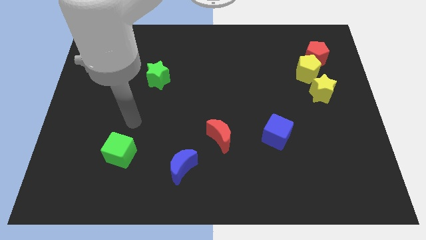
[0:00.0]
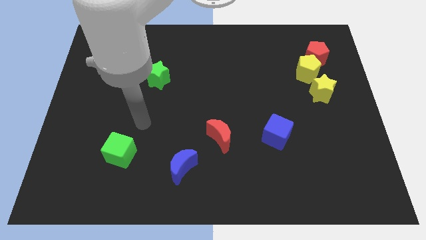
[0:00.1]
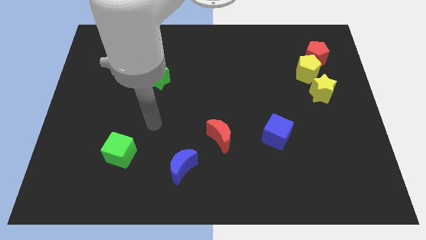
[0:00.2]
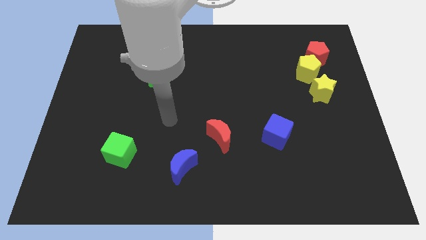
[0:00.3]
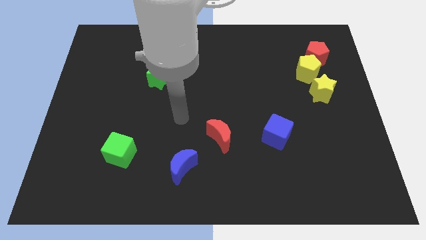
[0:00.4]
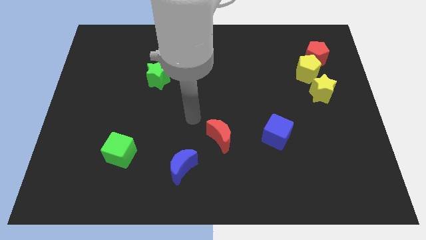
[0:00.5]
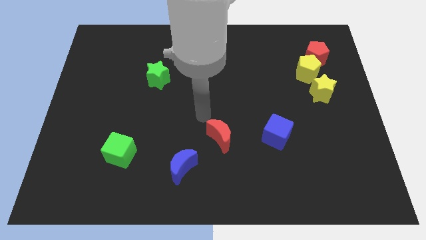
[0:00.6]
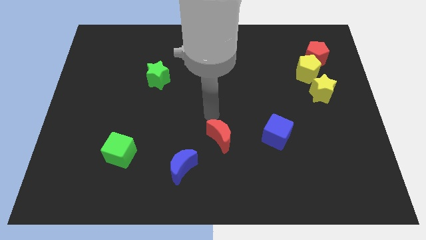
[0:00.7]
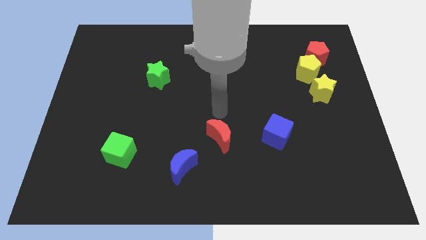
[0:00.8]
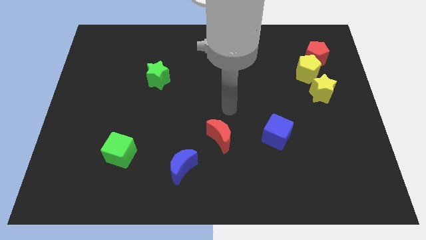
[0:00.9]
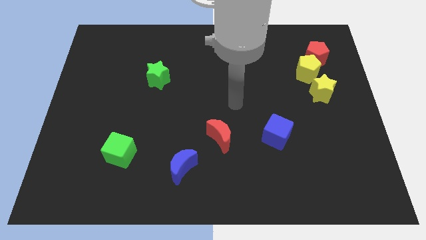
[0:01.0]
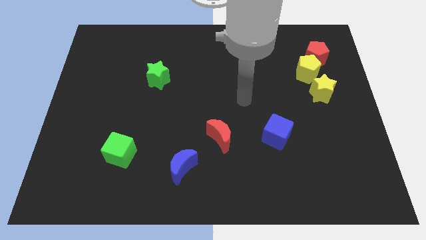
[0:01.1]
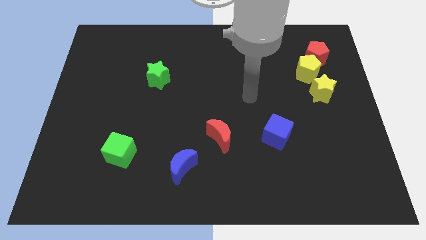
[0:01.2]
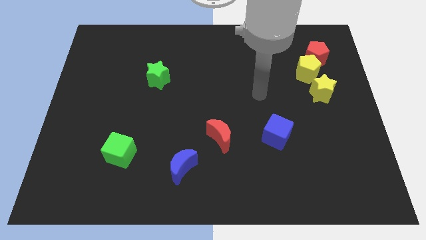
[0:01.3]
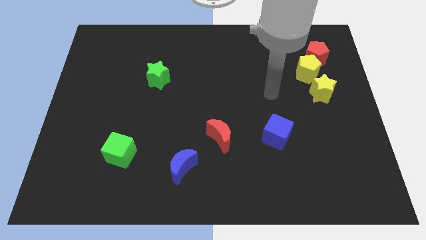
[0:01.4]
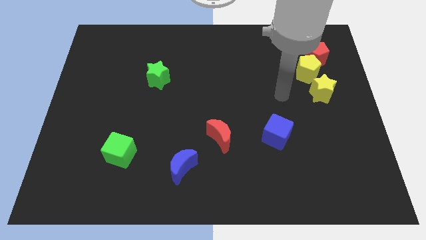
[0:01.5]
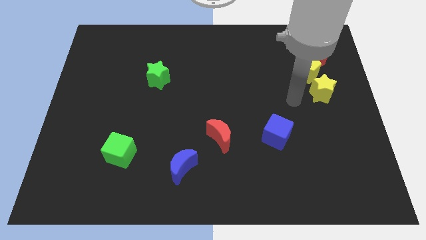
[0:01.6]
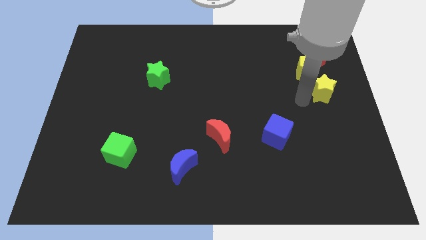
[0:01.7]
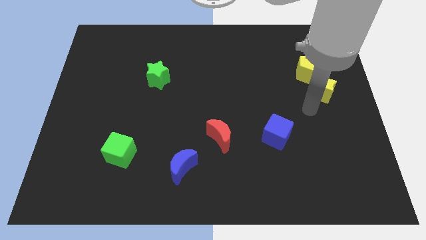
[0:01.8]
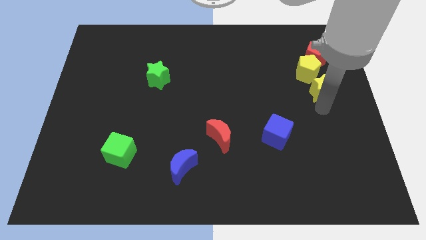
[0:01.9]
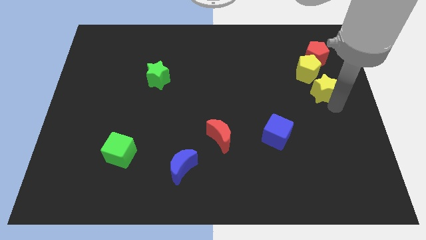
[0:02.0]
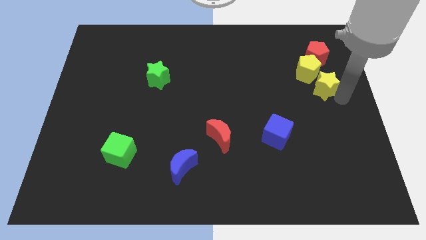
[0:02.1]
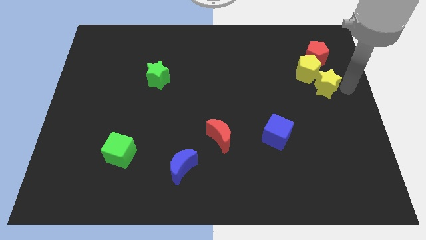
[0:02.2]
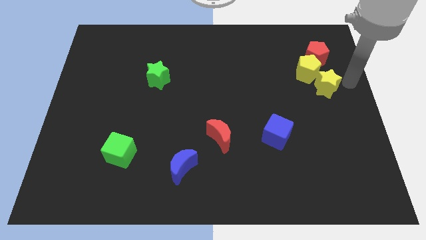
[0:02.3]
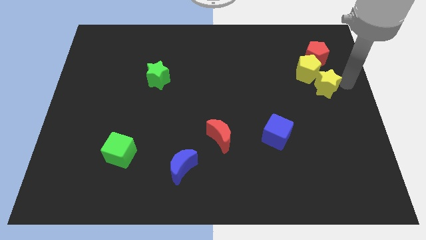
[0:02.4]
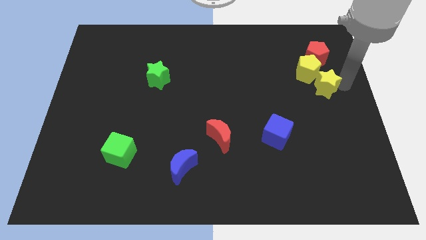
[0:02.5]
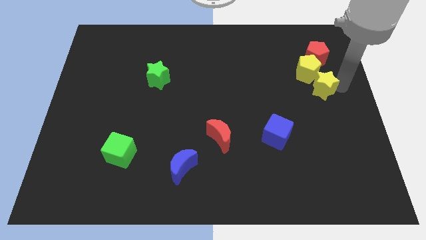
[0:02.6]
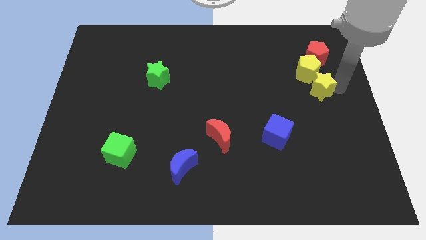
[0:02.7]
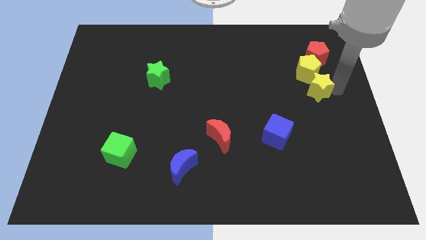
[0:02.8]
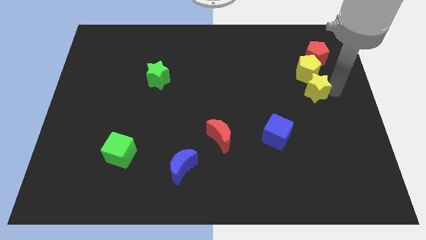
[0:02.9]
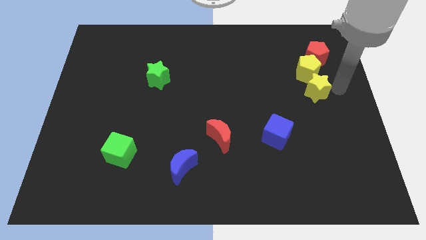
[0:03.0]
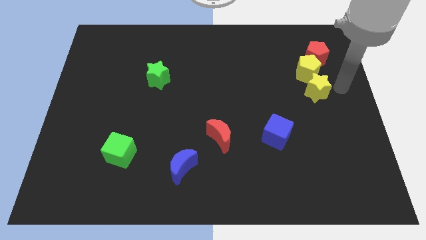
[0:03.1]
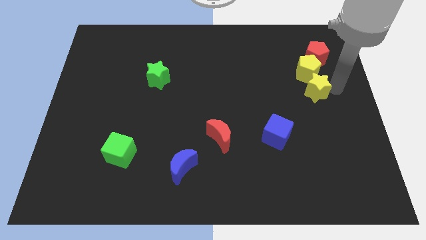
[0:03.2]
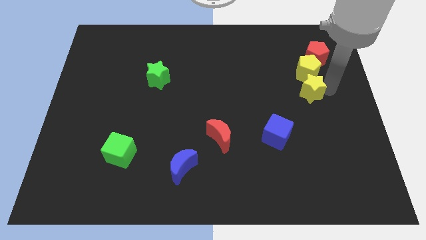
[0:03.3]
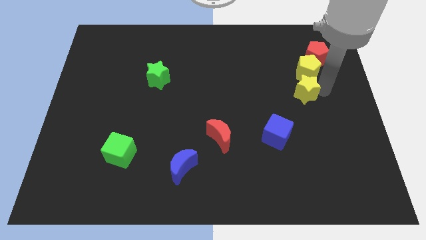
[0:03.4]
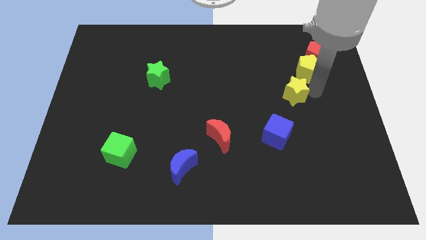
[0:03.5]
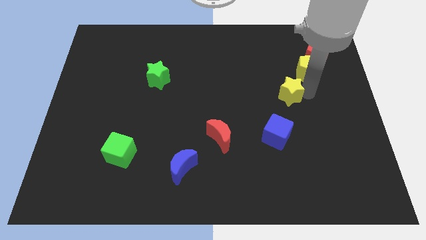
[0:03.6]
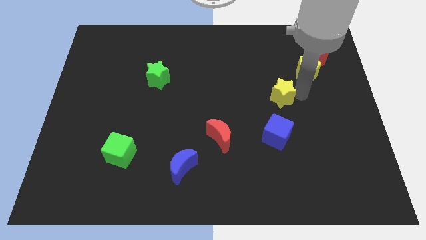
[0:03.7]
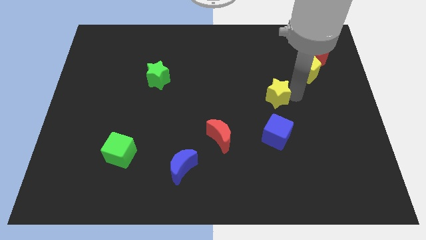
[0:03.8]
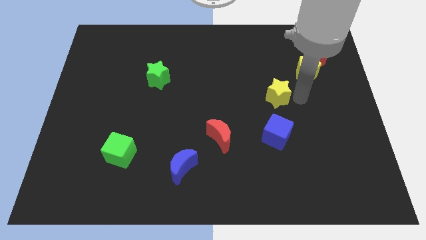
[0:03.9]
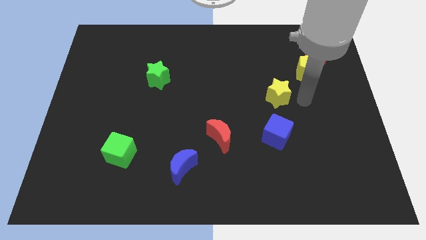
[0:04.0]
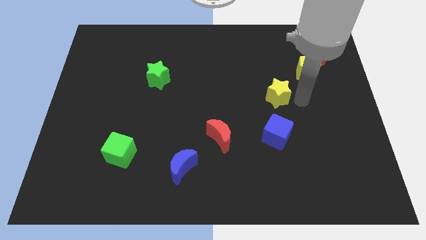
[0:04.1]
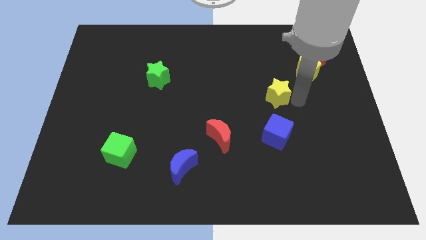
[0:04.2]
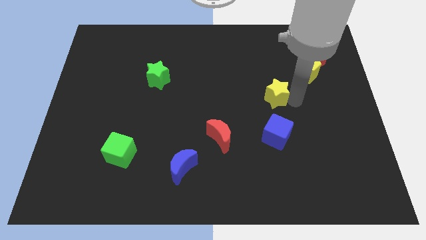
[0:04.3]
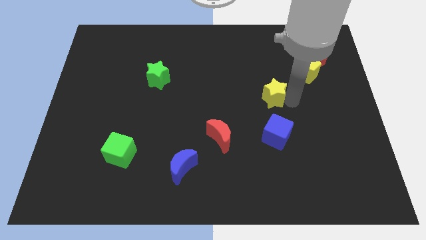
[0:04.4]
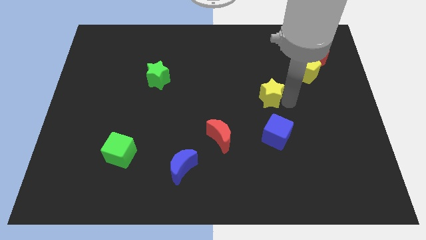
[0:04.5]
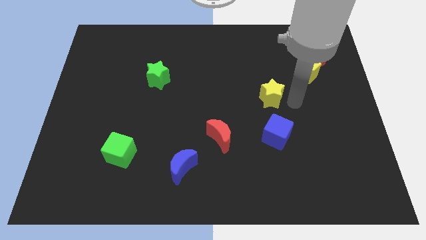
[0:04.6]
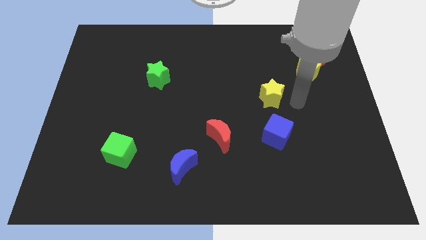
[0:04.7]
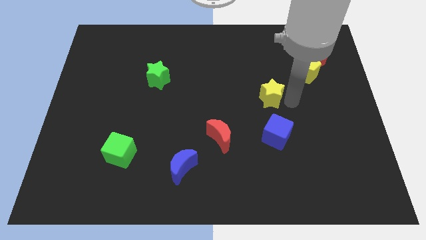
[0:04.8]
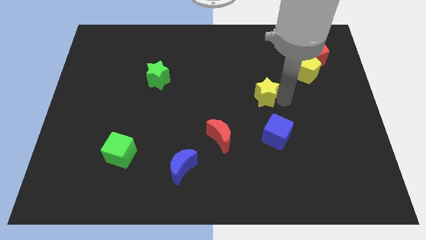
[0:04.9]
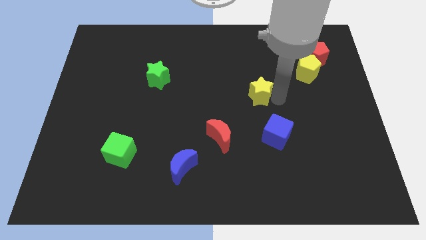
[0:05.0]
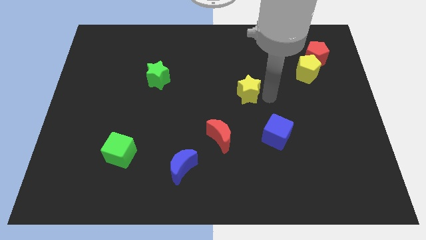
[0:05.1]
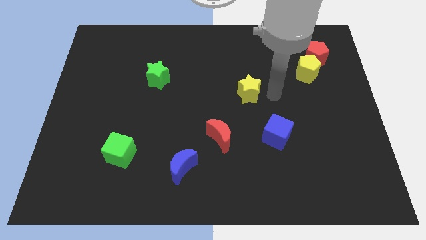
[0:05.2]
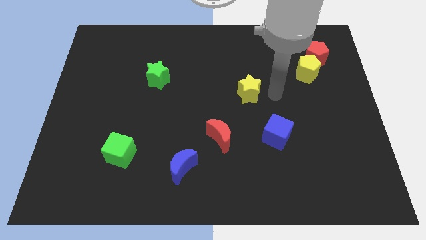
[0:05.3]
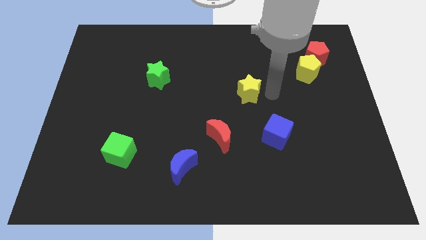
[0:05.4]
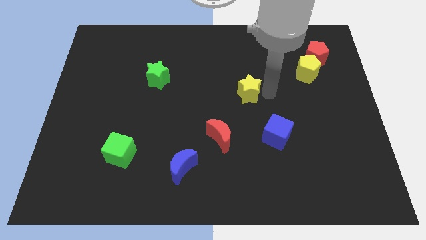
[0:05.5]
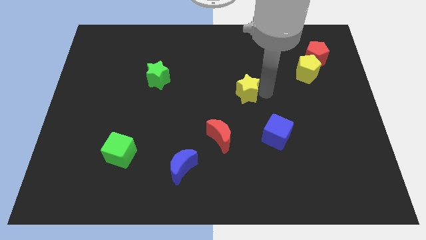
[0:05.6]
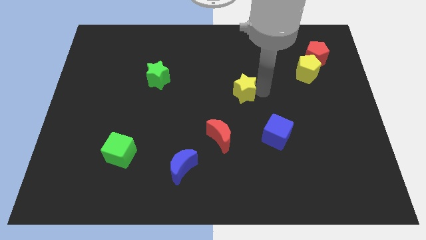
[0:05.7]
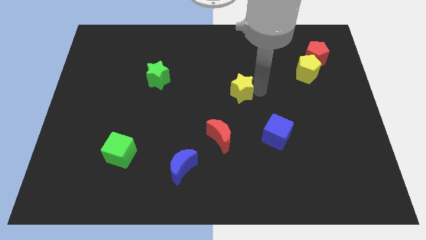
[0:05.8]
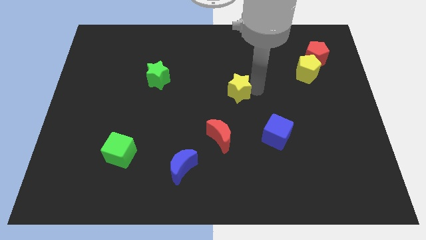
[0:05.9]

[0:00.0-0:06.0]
slide the yellow star left

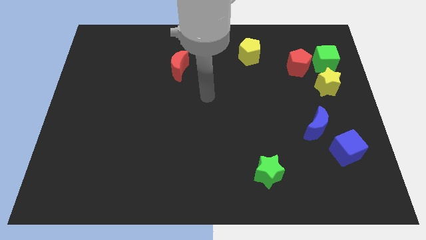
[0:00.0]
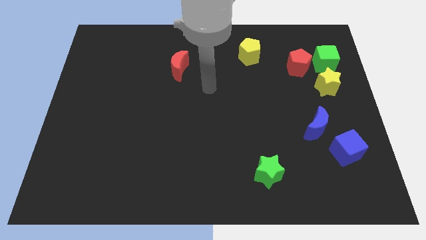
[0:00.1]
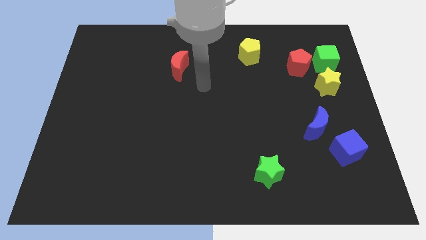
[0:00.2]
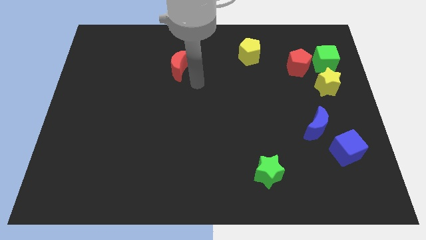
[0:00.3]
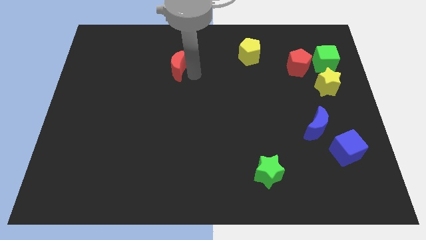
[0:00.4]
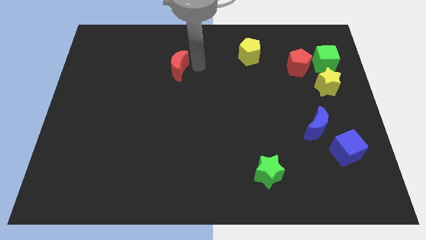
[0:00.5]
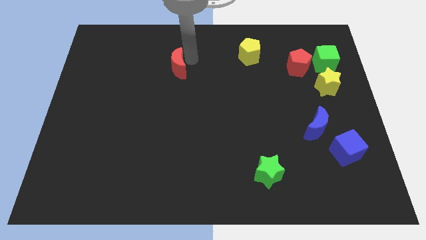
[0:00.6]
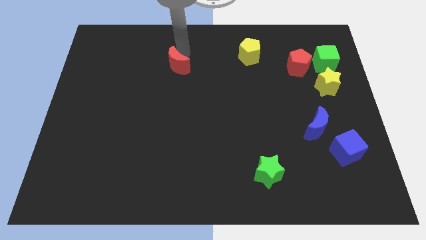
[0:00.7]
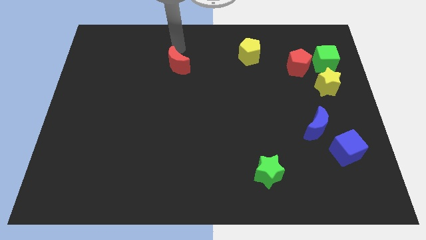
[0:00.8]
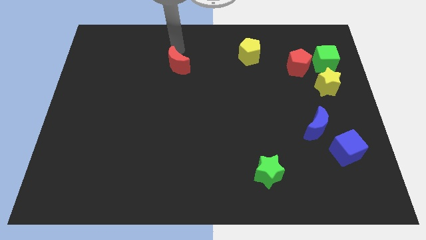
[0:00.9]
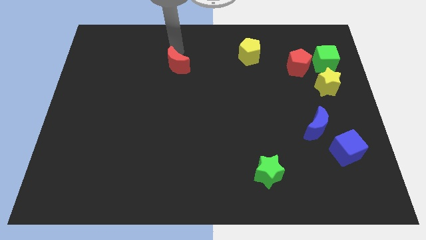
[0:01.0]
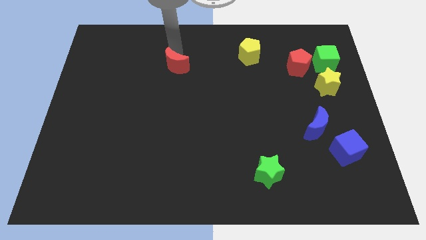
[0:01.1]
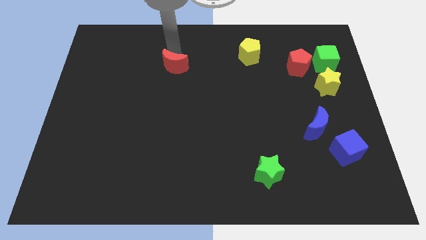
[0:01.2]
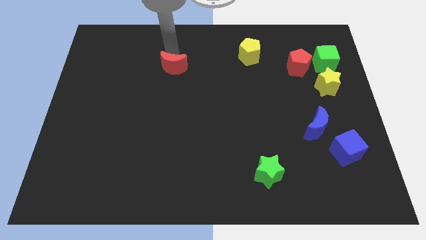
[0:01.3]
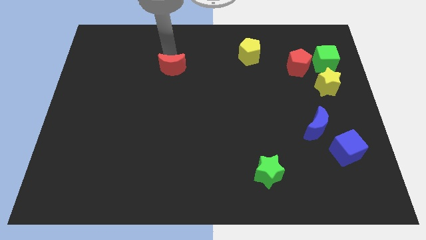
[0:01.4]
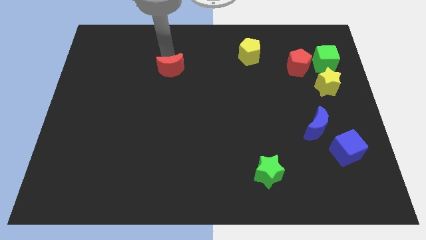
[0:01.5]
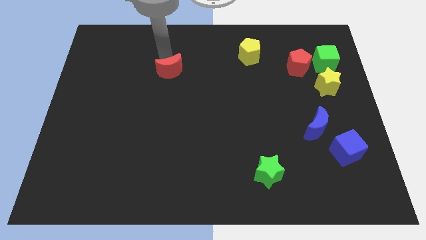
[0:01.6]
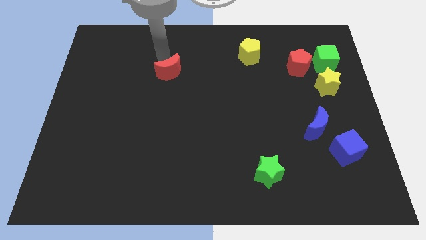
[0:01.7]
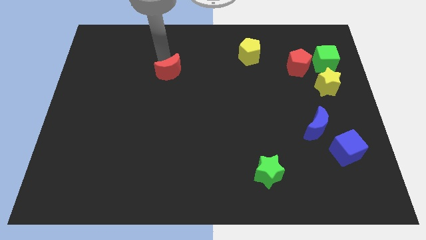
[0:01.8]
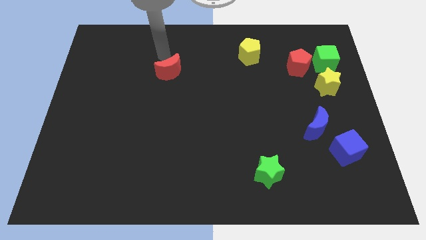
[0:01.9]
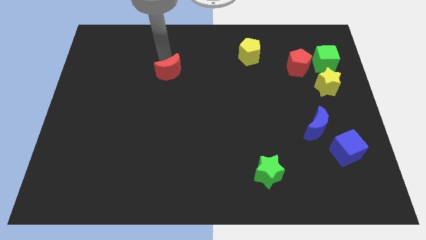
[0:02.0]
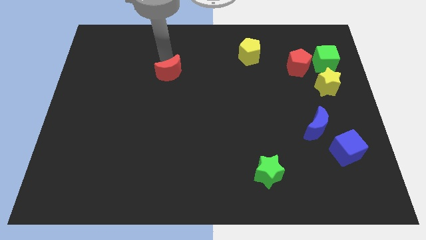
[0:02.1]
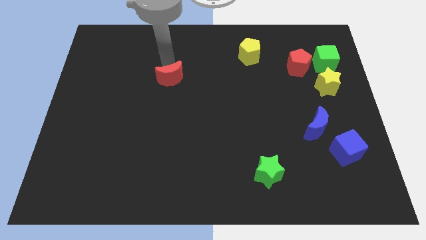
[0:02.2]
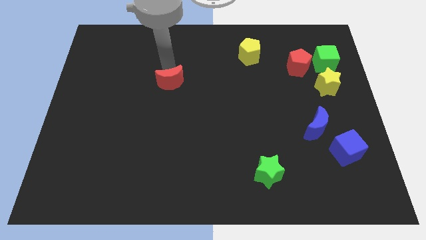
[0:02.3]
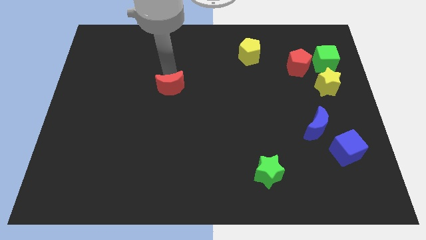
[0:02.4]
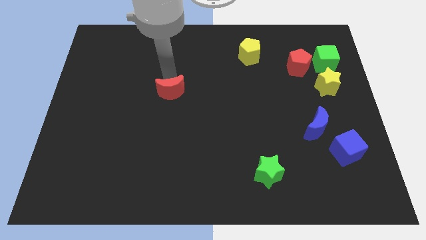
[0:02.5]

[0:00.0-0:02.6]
slide the red moon down a little bit
